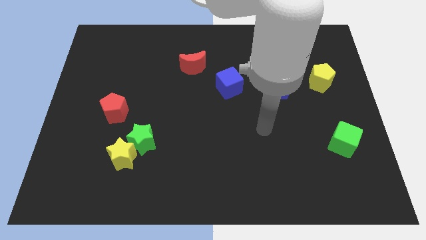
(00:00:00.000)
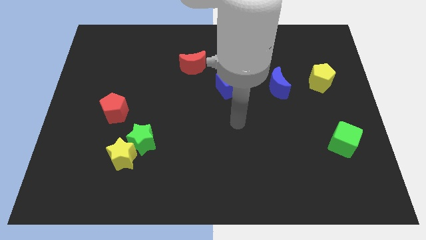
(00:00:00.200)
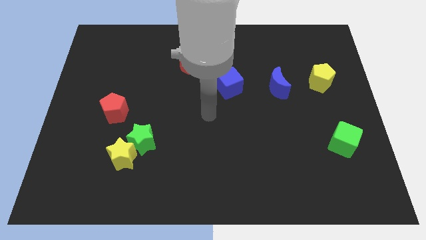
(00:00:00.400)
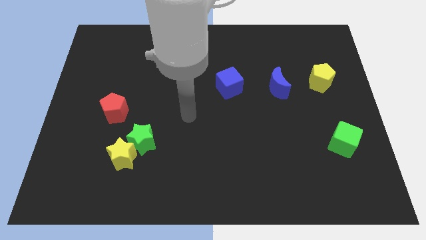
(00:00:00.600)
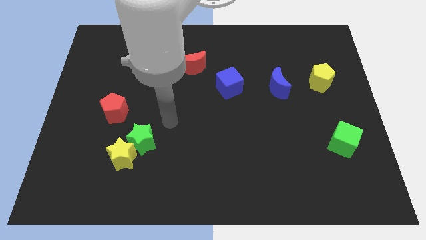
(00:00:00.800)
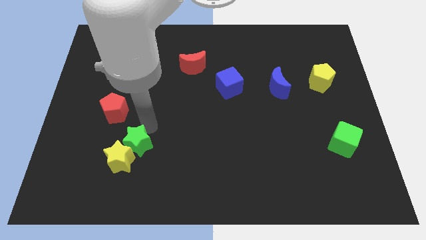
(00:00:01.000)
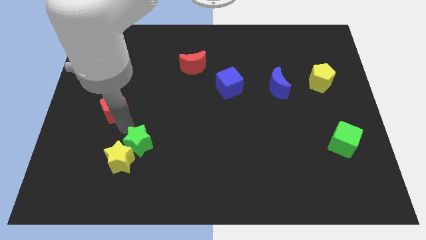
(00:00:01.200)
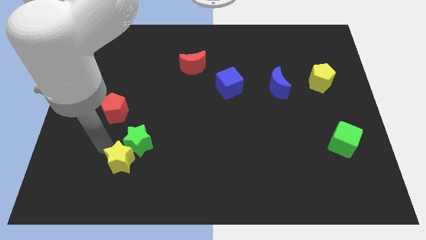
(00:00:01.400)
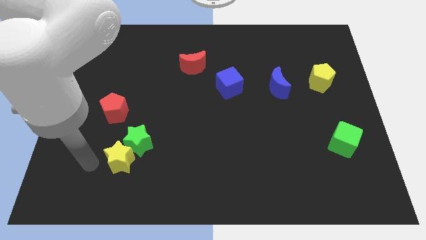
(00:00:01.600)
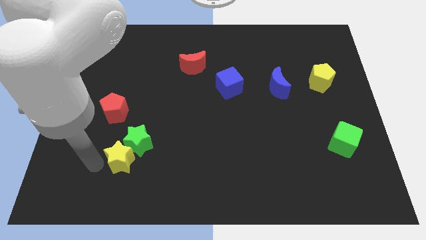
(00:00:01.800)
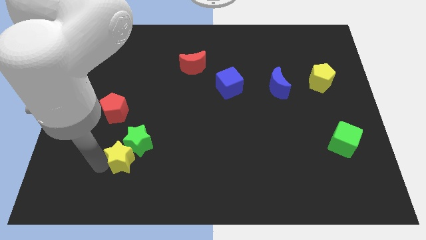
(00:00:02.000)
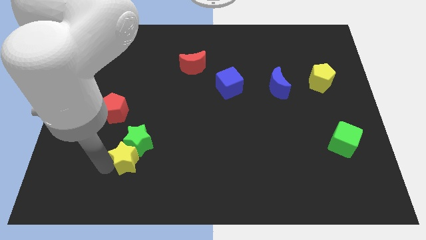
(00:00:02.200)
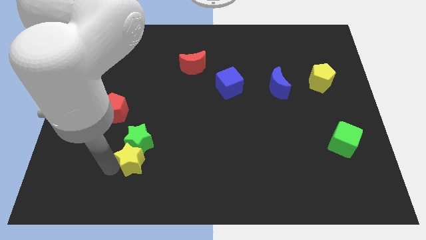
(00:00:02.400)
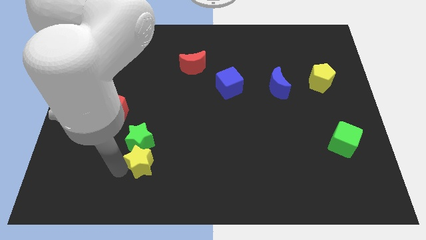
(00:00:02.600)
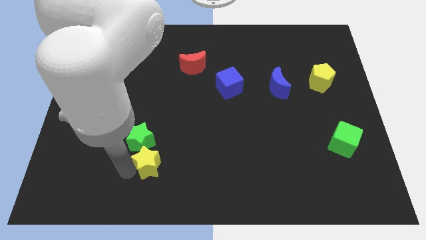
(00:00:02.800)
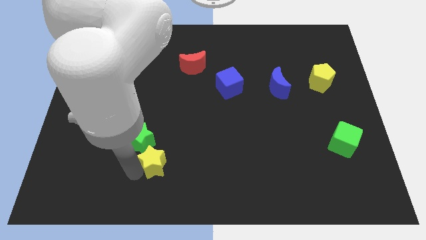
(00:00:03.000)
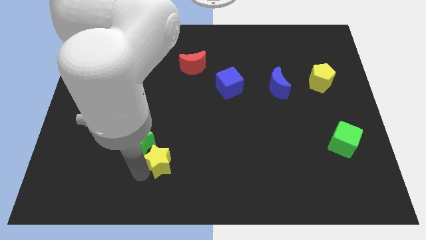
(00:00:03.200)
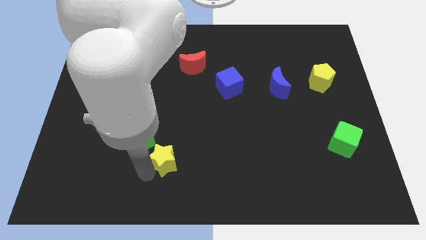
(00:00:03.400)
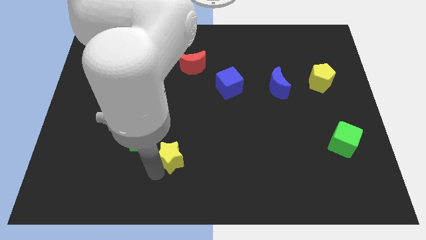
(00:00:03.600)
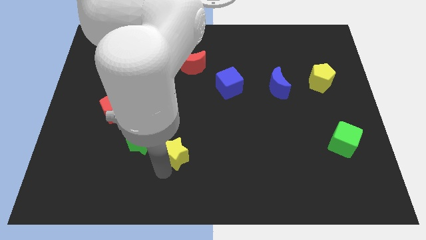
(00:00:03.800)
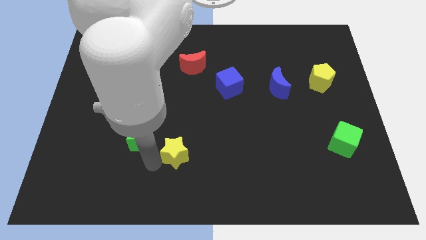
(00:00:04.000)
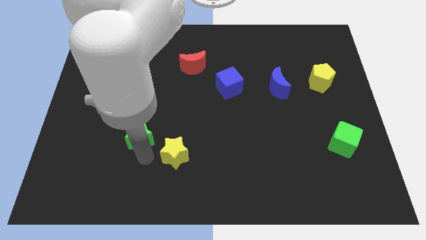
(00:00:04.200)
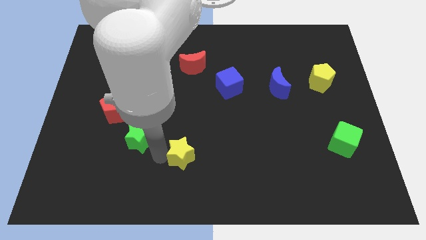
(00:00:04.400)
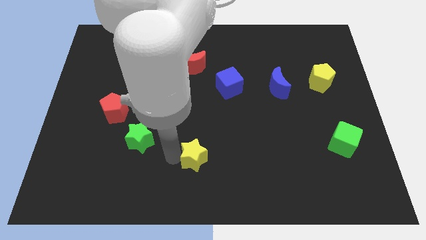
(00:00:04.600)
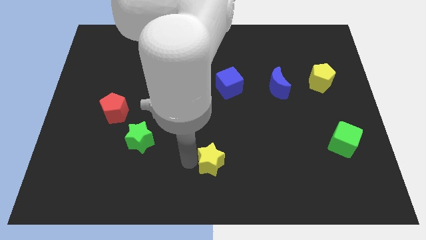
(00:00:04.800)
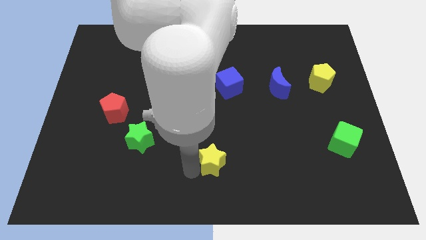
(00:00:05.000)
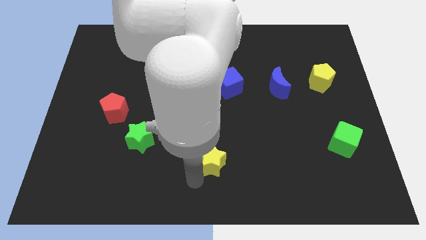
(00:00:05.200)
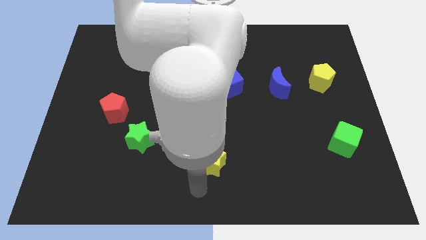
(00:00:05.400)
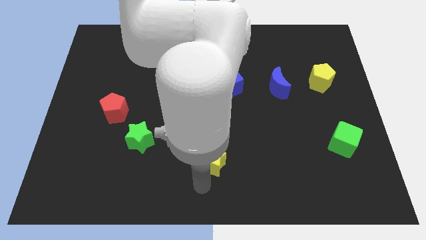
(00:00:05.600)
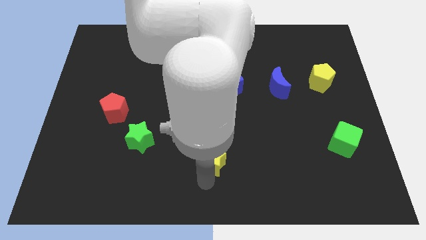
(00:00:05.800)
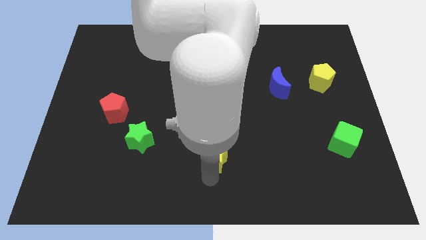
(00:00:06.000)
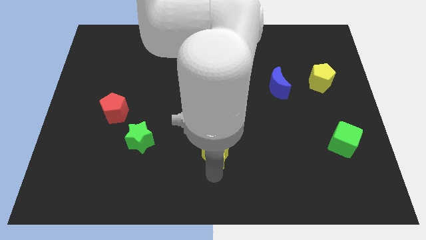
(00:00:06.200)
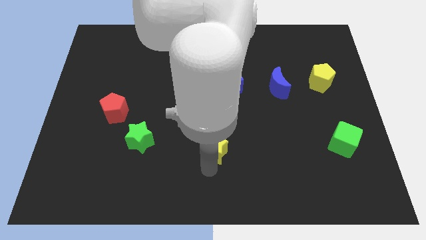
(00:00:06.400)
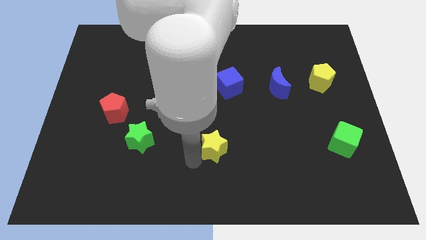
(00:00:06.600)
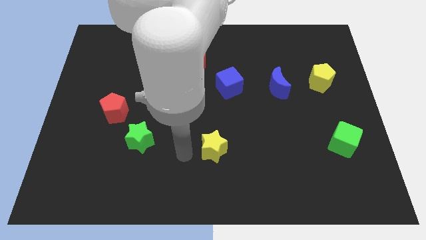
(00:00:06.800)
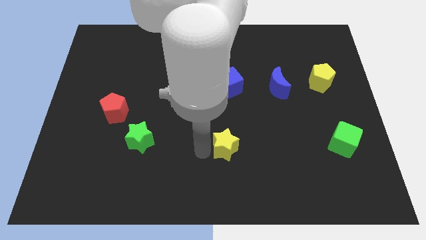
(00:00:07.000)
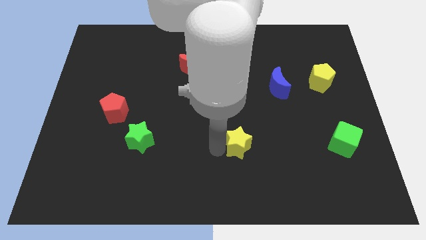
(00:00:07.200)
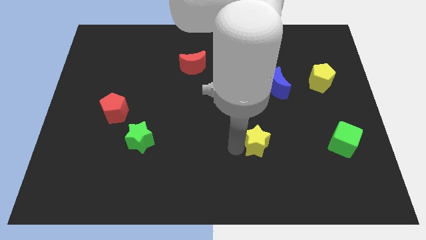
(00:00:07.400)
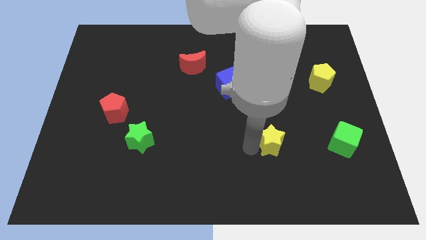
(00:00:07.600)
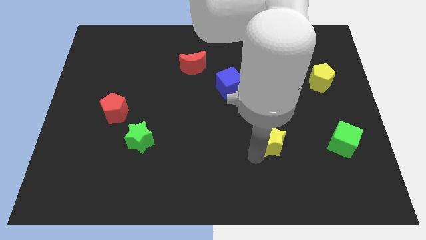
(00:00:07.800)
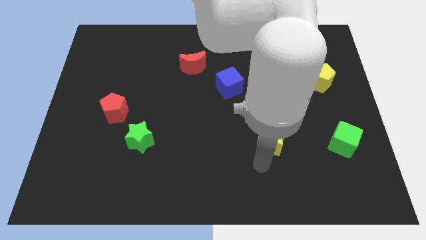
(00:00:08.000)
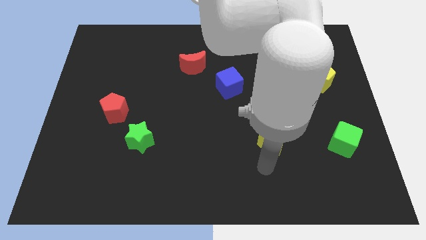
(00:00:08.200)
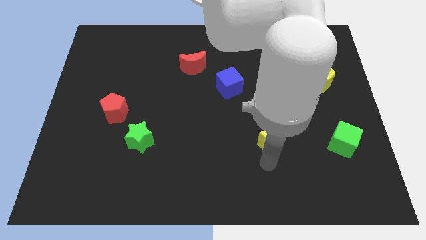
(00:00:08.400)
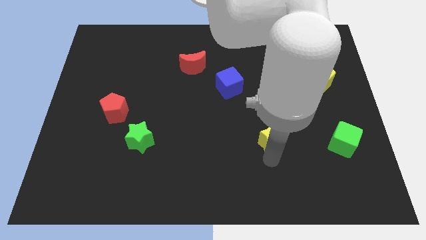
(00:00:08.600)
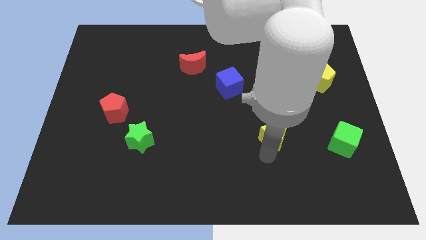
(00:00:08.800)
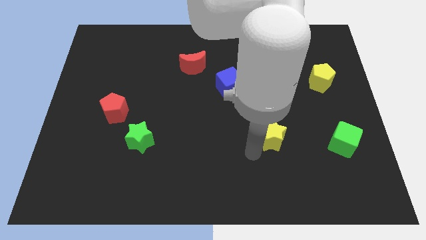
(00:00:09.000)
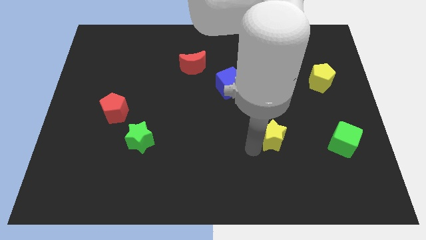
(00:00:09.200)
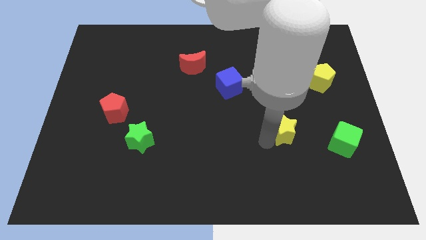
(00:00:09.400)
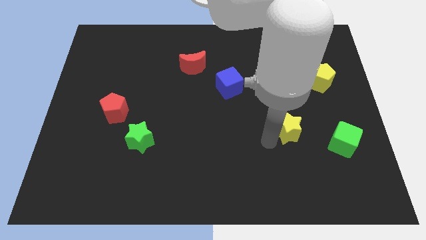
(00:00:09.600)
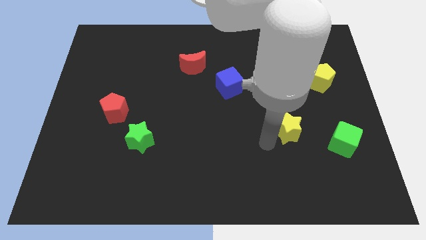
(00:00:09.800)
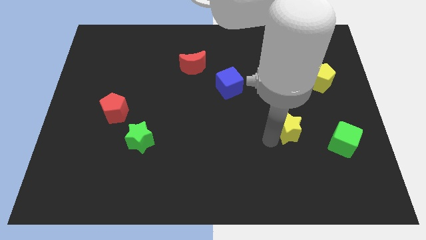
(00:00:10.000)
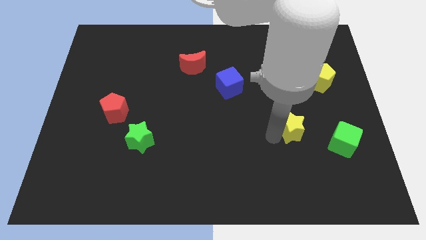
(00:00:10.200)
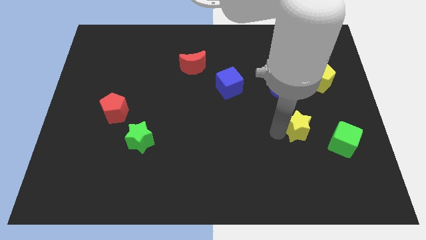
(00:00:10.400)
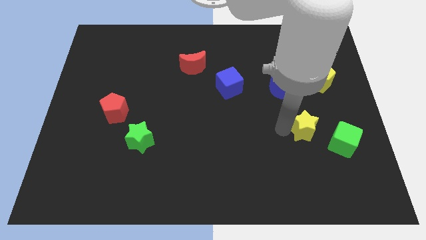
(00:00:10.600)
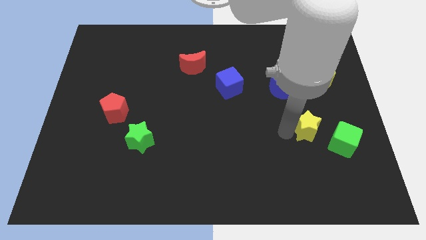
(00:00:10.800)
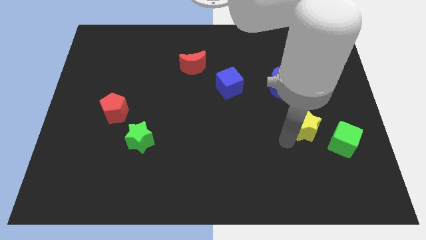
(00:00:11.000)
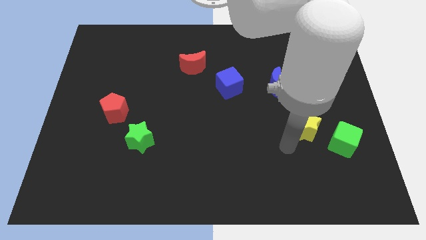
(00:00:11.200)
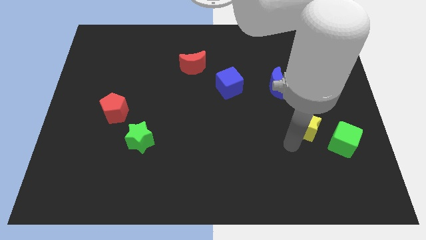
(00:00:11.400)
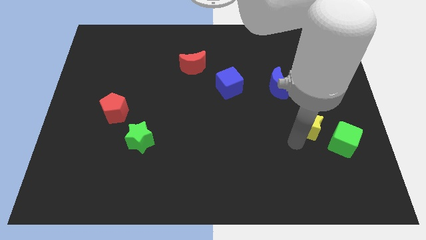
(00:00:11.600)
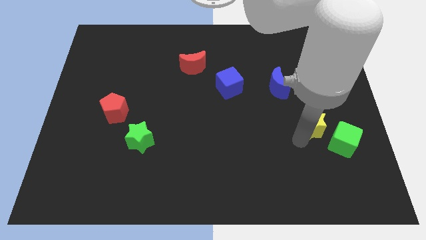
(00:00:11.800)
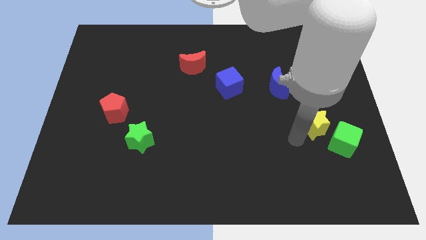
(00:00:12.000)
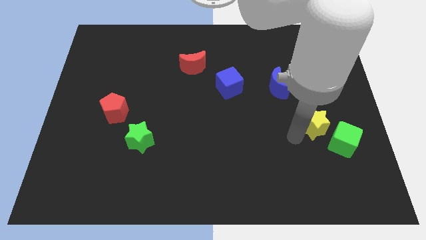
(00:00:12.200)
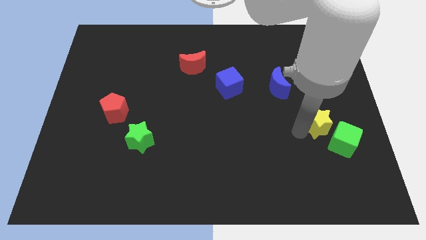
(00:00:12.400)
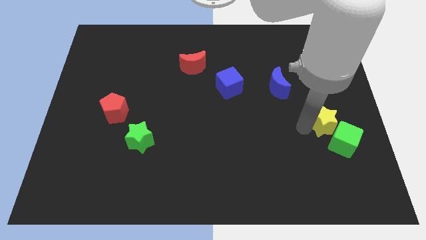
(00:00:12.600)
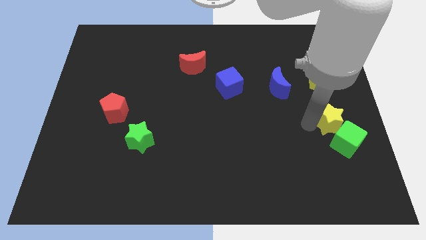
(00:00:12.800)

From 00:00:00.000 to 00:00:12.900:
slide the yellow star to the center right
